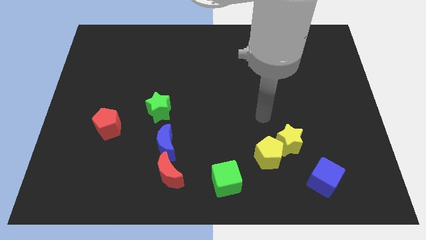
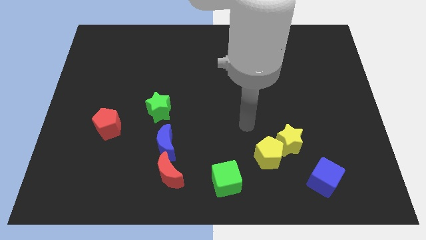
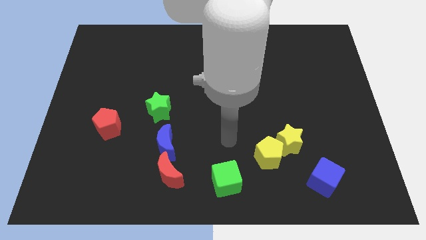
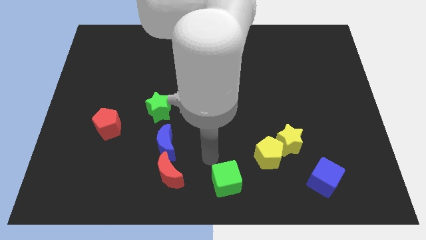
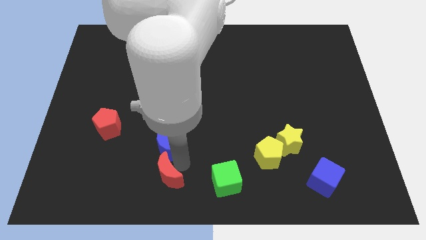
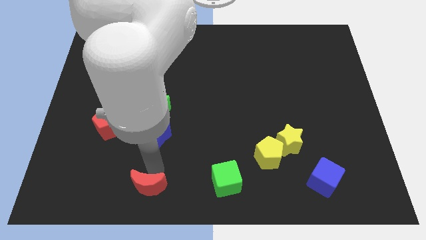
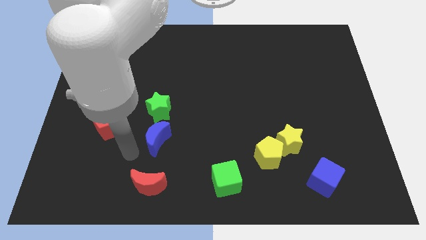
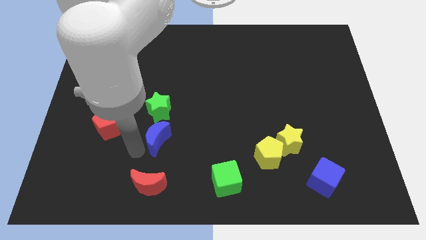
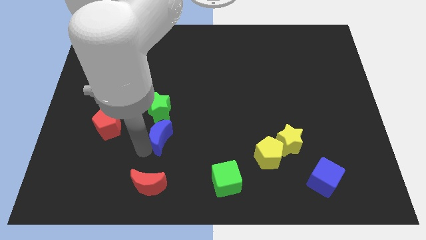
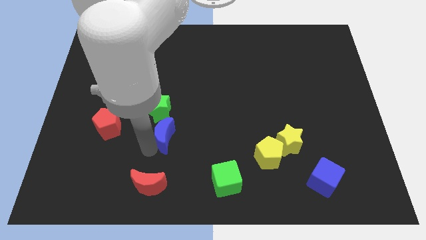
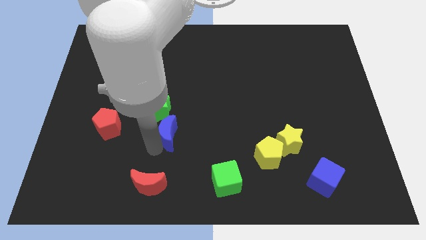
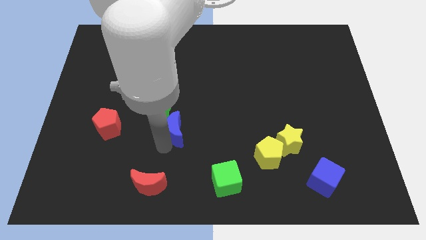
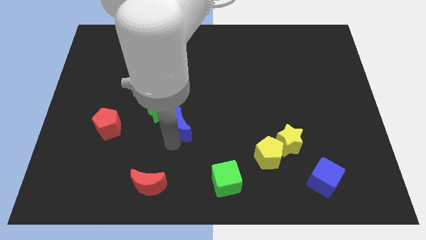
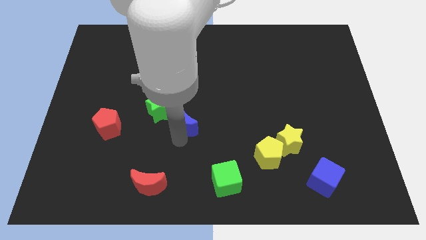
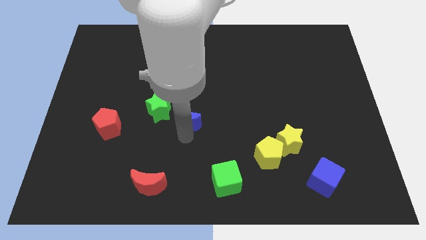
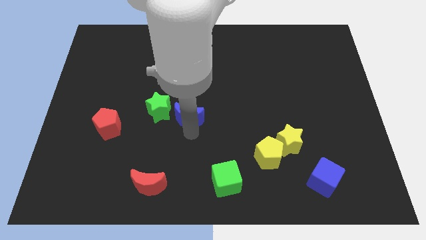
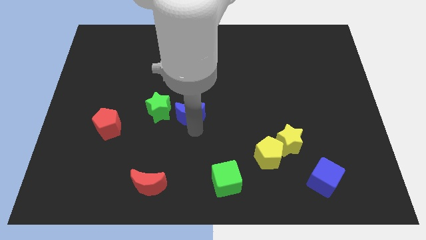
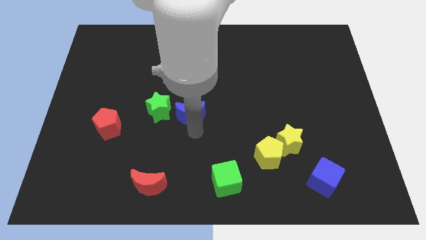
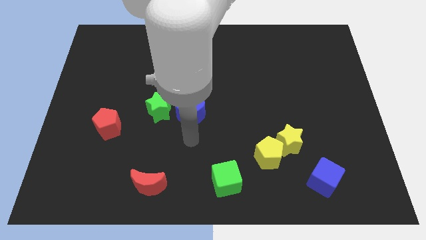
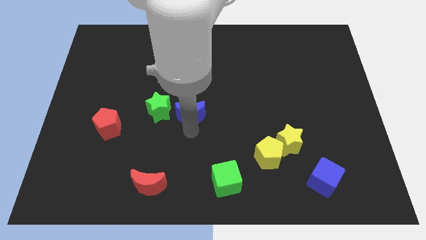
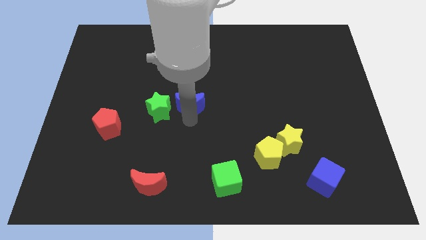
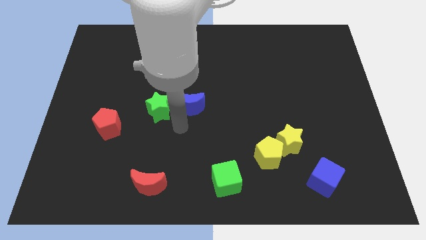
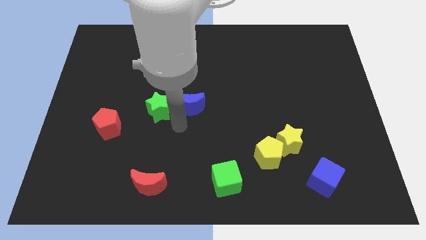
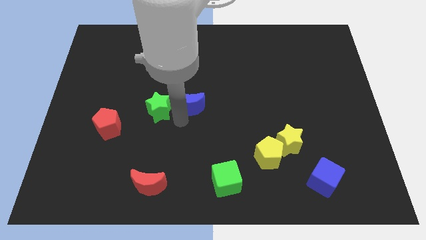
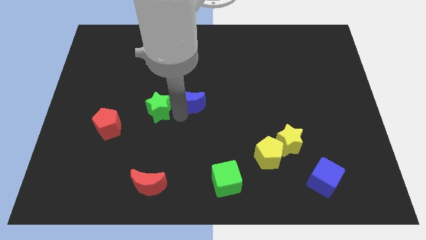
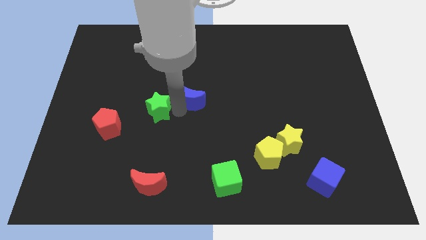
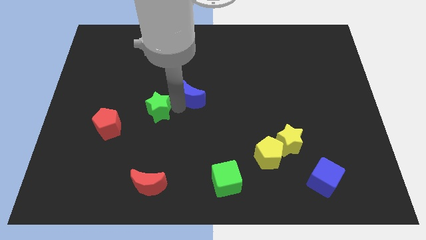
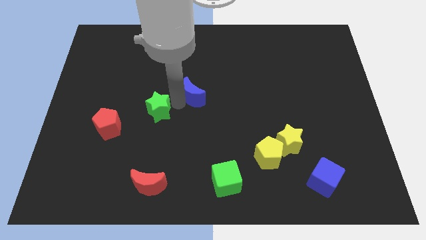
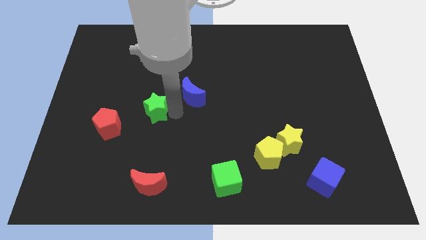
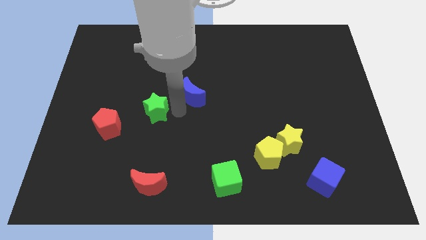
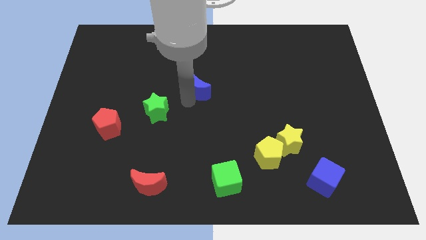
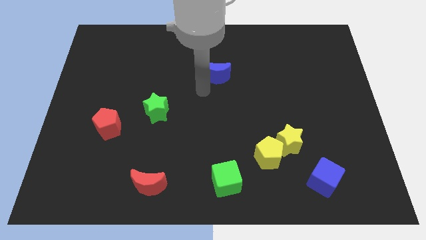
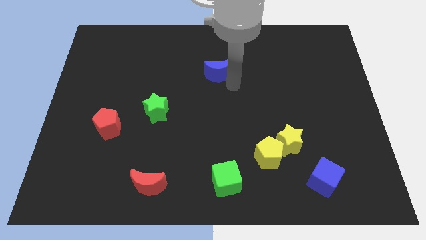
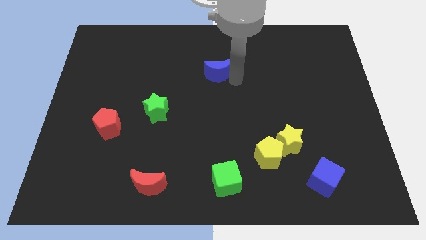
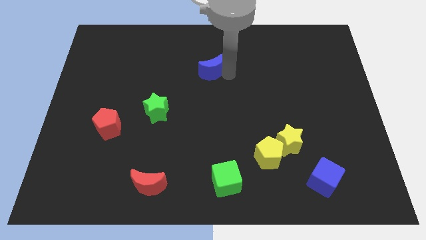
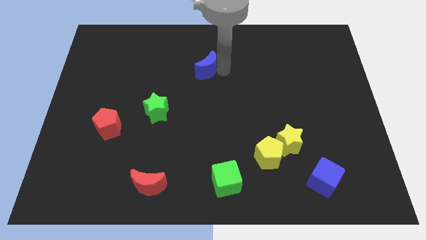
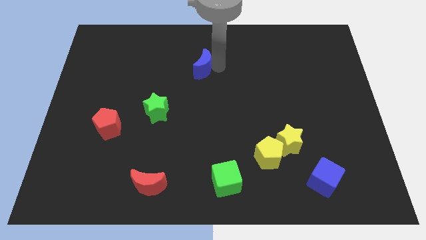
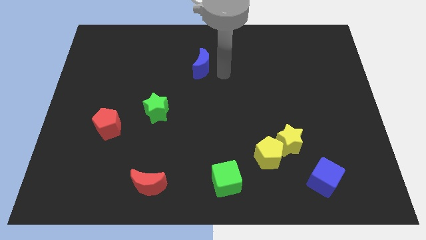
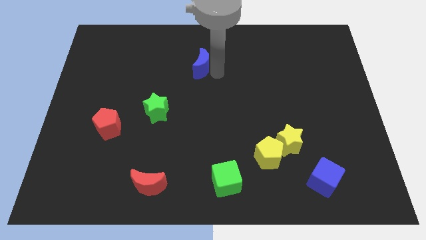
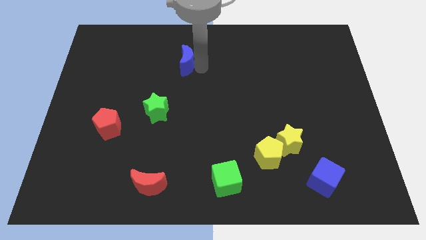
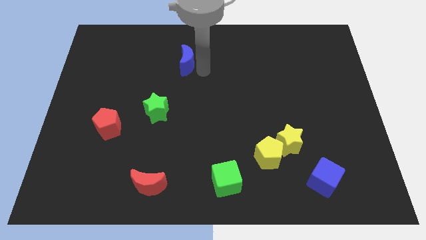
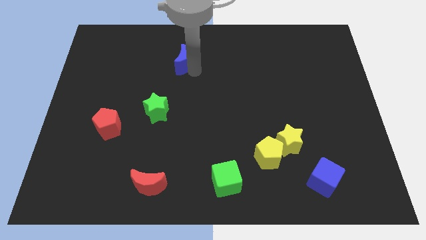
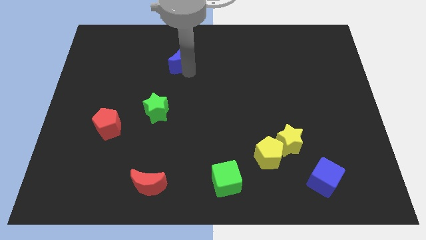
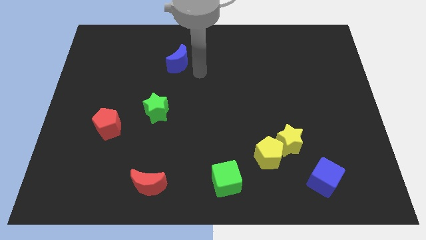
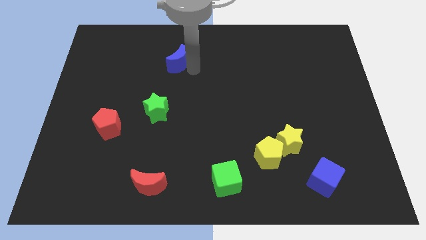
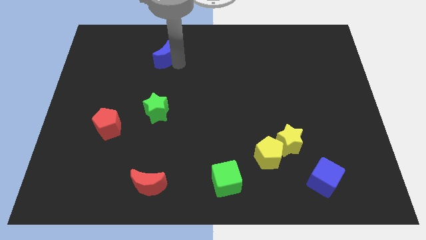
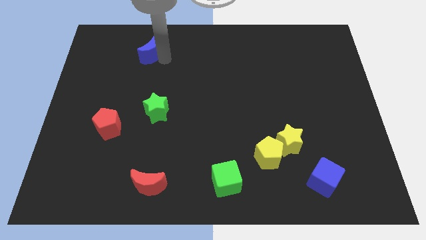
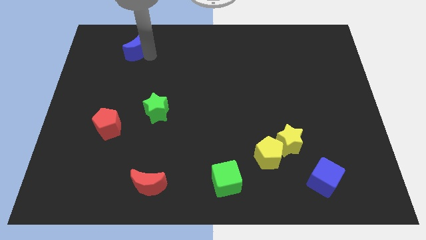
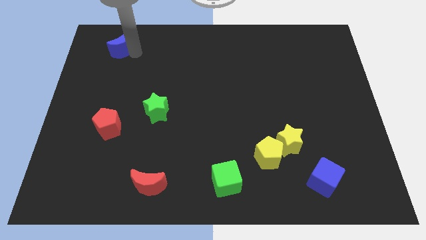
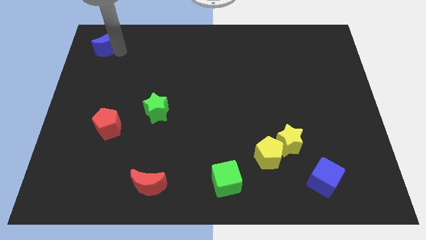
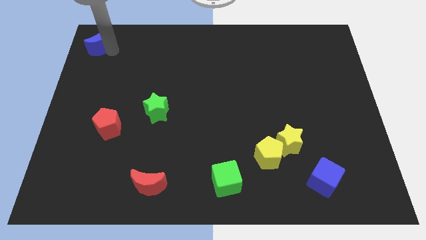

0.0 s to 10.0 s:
slide the blue moon to the top left

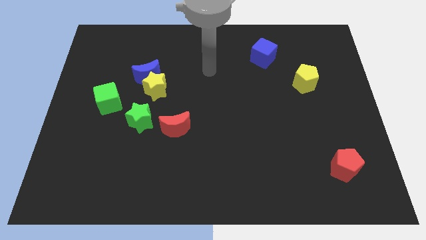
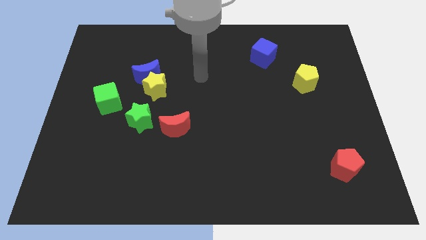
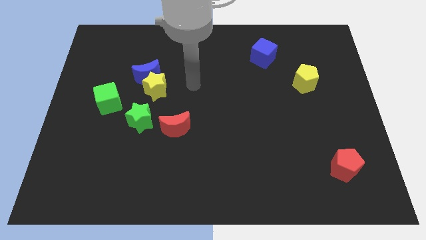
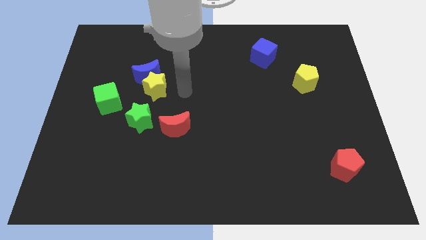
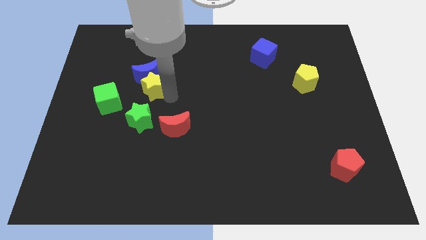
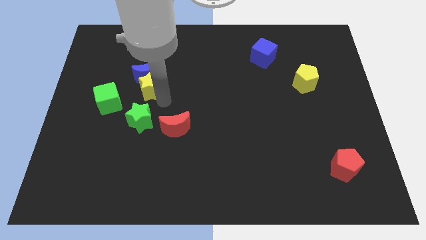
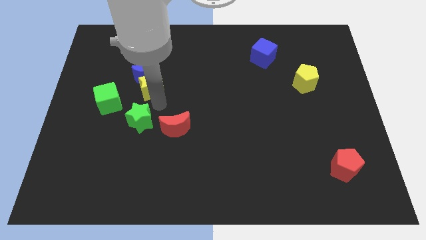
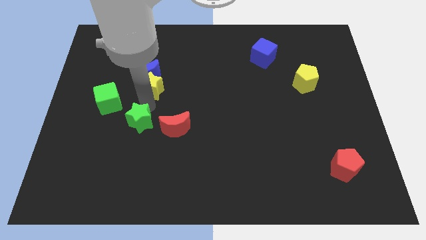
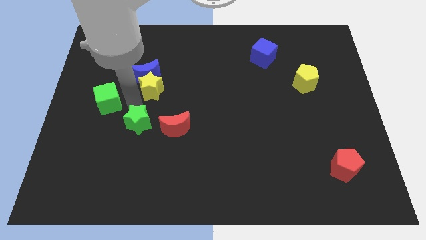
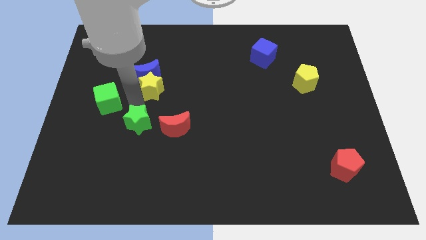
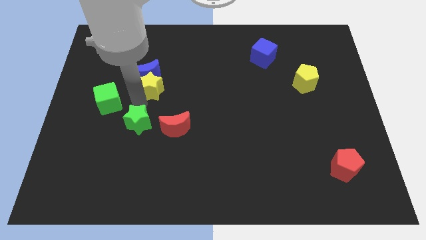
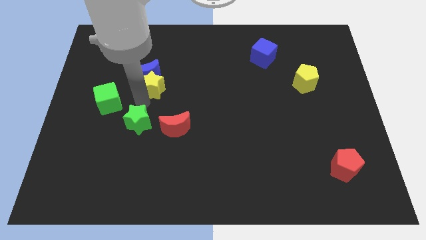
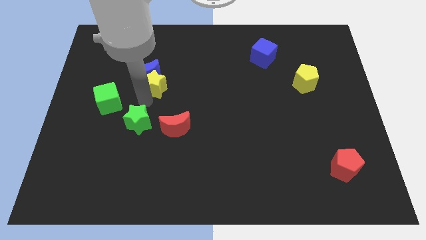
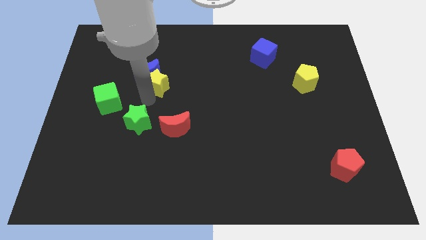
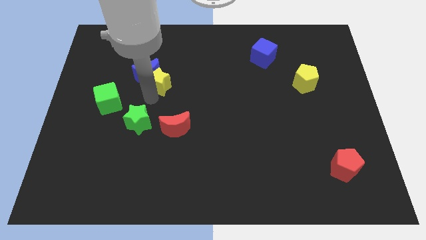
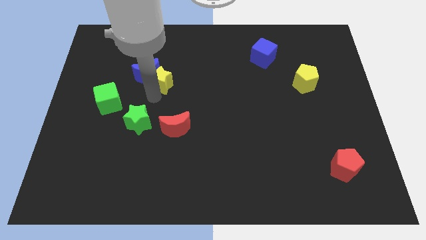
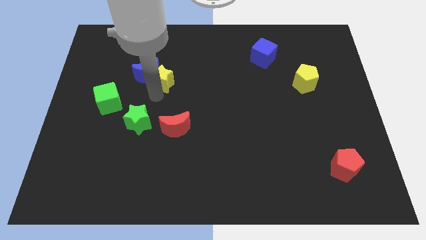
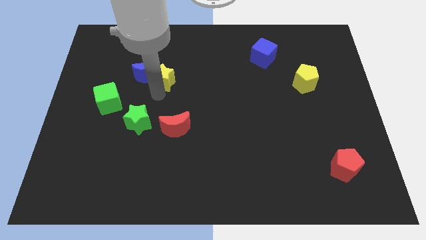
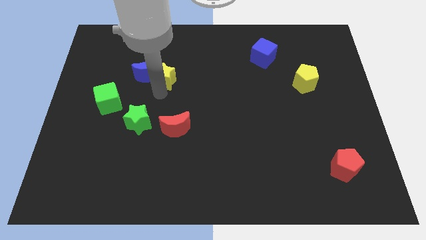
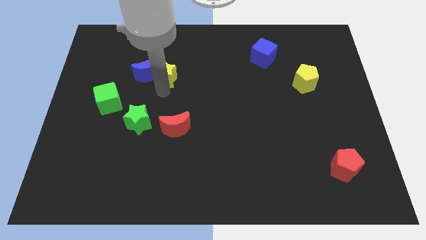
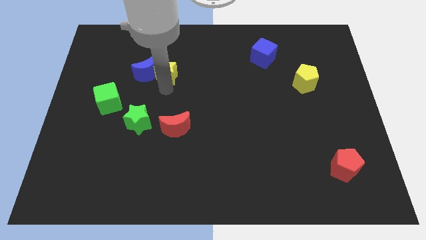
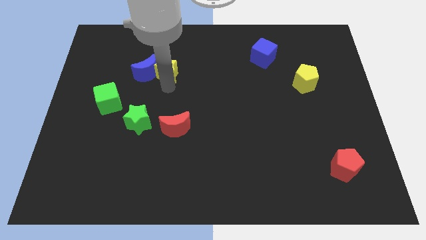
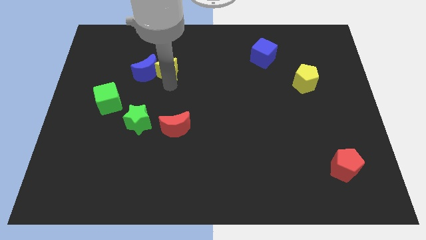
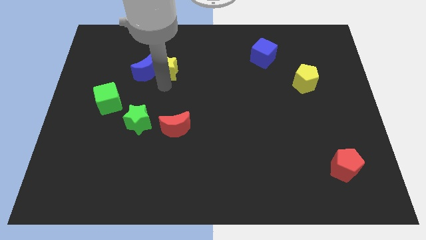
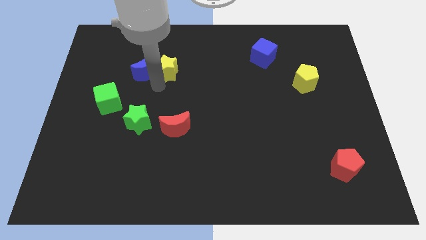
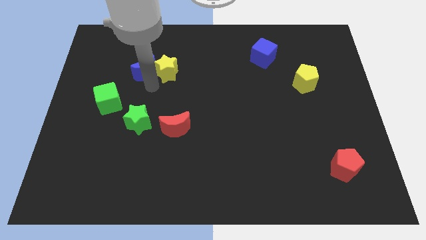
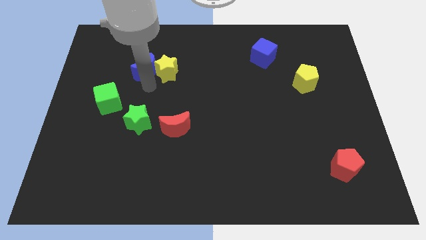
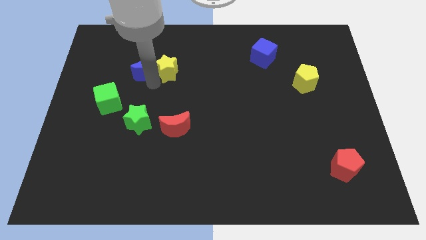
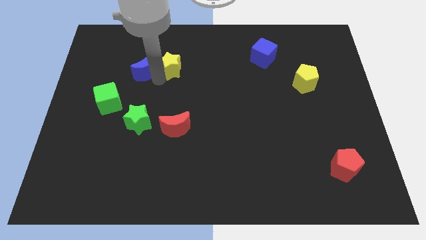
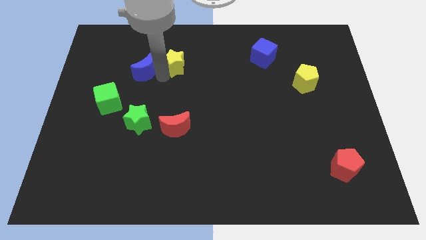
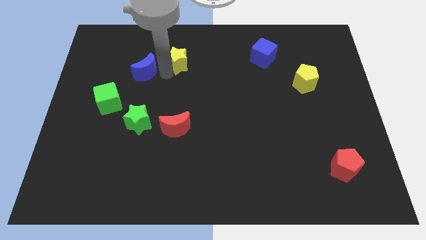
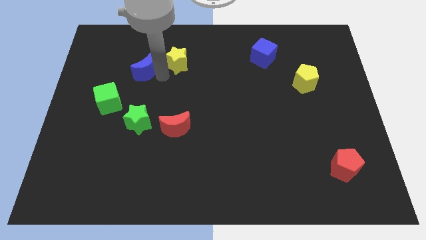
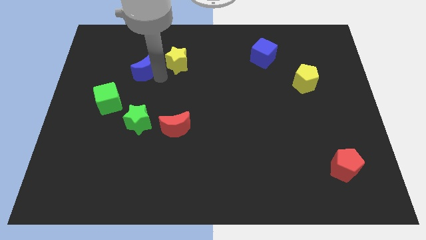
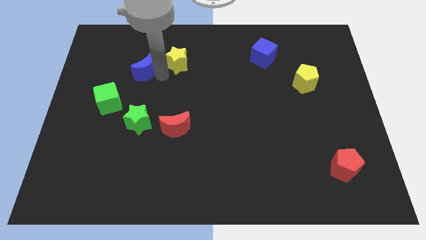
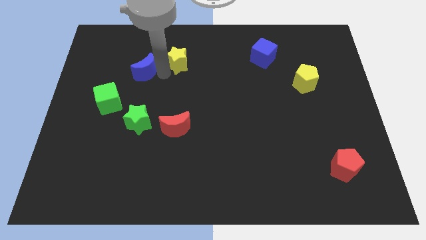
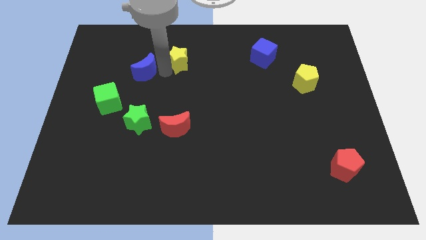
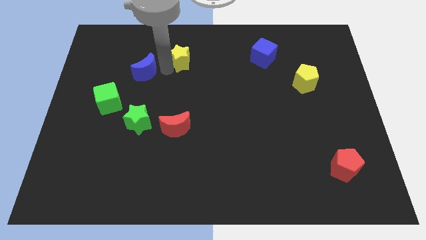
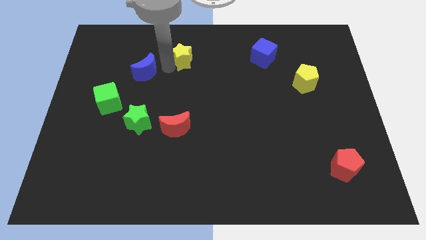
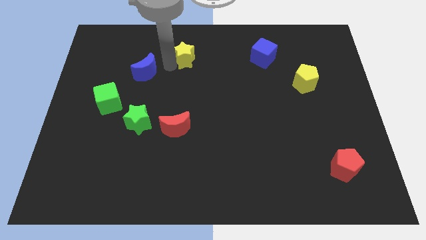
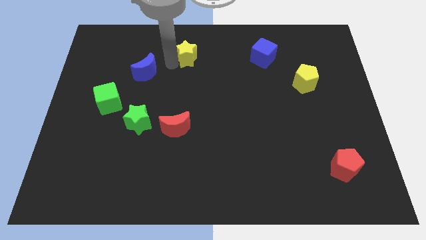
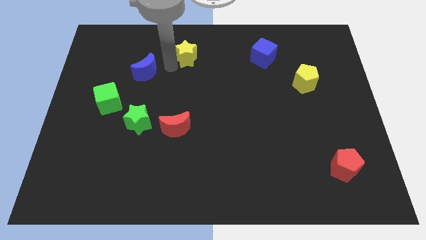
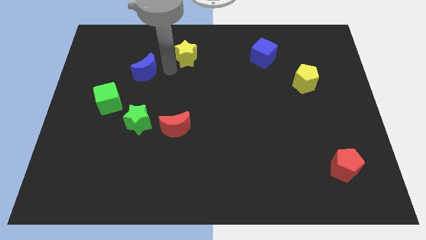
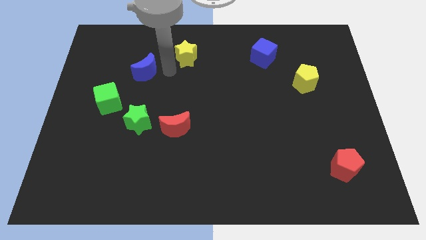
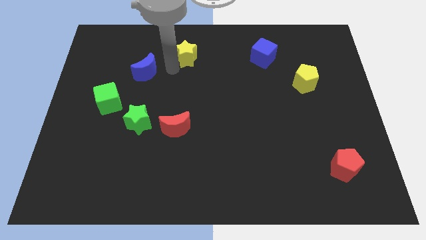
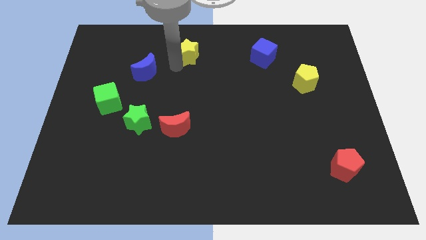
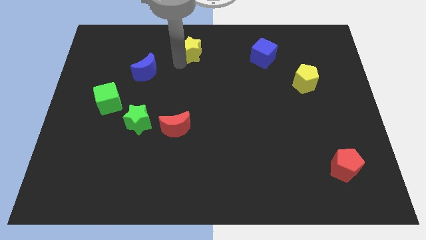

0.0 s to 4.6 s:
slide the yellow star to the towards your base
